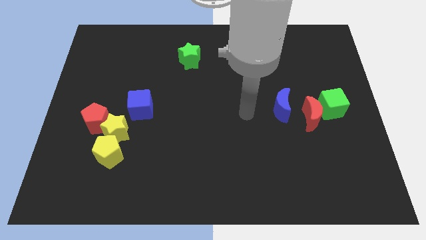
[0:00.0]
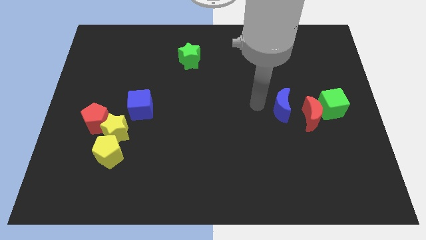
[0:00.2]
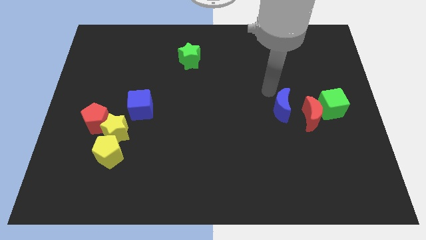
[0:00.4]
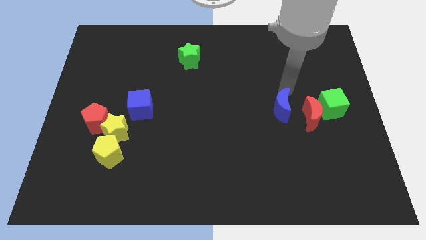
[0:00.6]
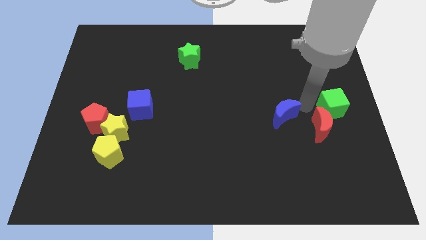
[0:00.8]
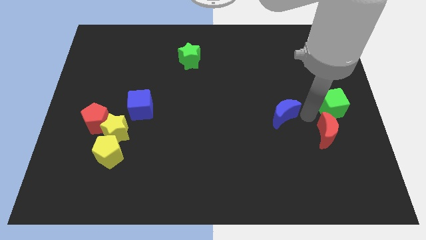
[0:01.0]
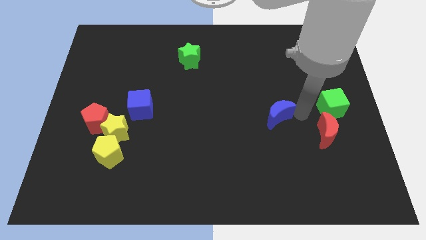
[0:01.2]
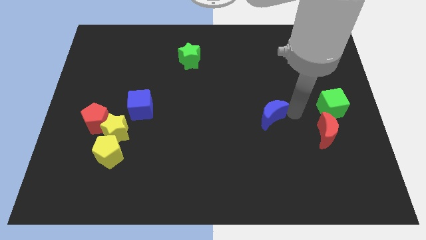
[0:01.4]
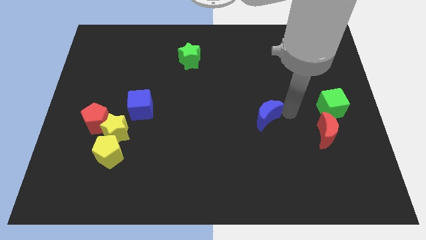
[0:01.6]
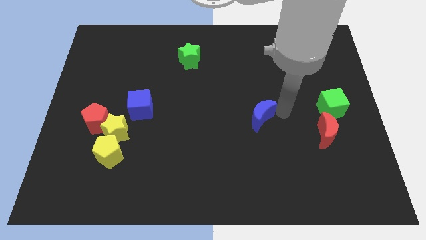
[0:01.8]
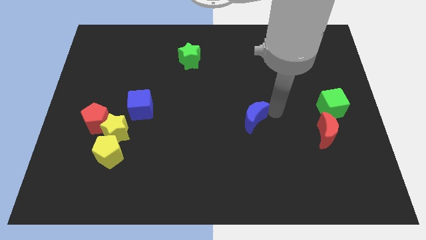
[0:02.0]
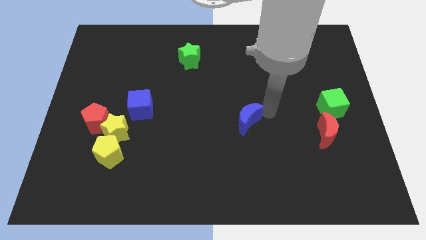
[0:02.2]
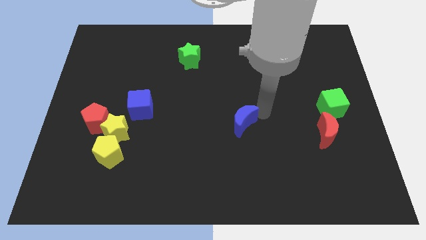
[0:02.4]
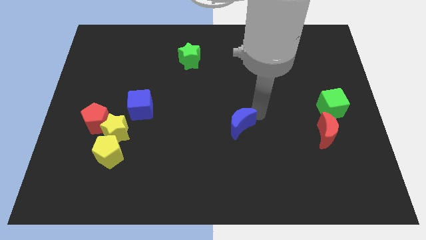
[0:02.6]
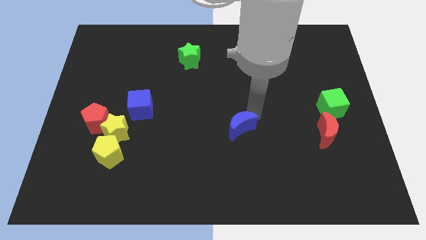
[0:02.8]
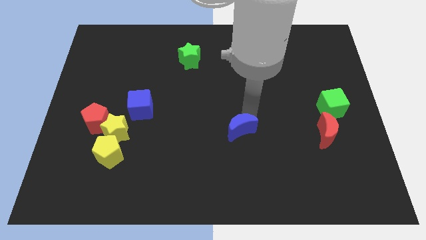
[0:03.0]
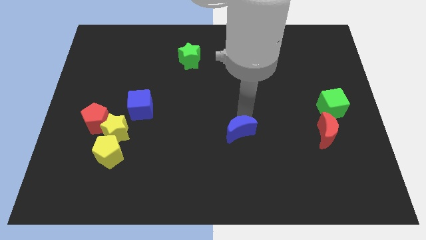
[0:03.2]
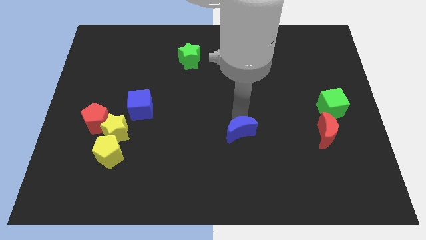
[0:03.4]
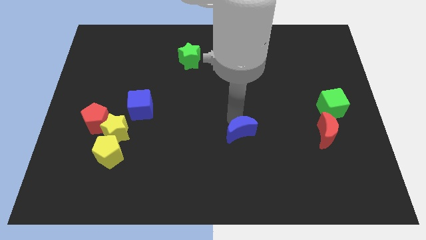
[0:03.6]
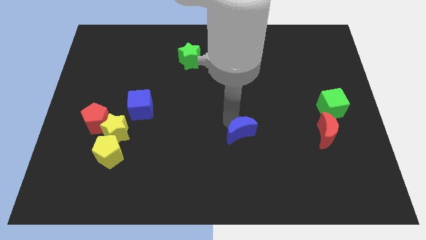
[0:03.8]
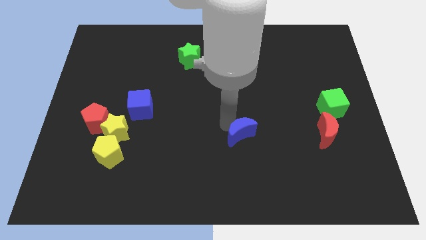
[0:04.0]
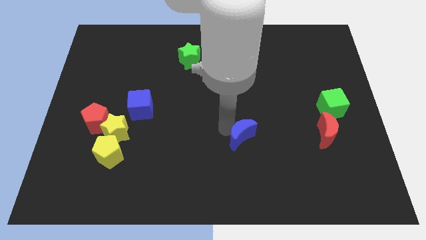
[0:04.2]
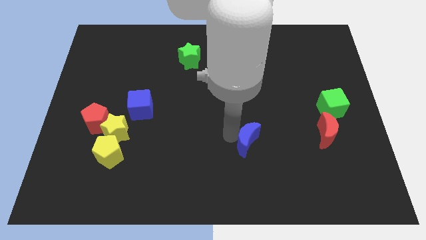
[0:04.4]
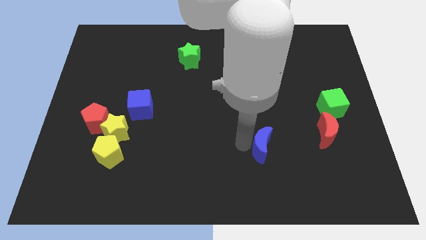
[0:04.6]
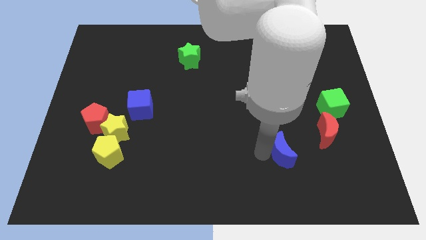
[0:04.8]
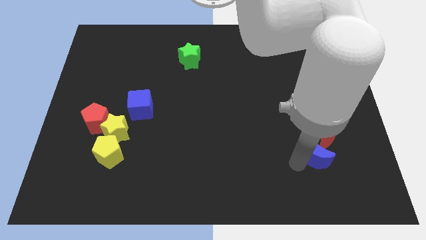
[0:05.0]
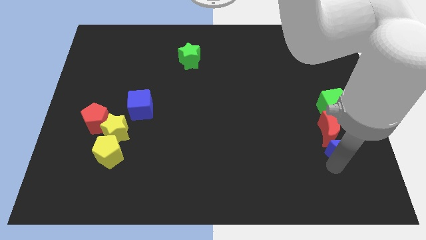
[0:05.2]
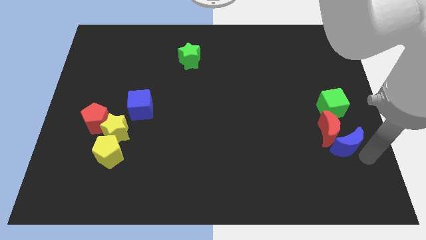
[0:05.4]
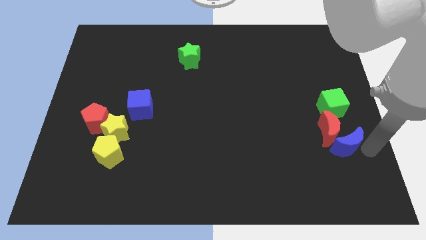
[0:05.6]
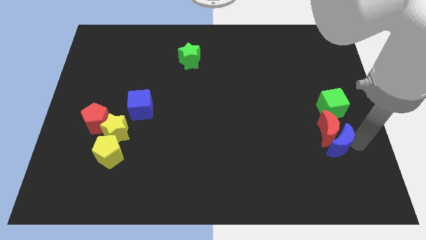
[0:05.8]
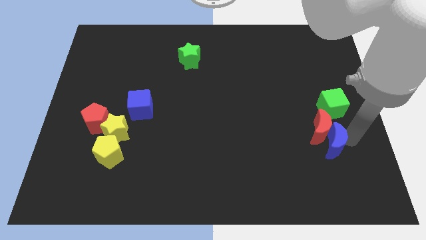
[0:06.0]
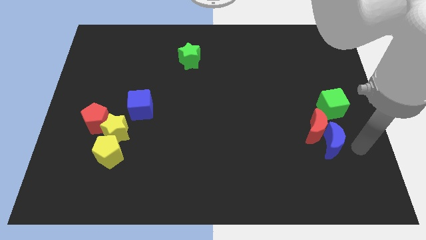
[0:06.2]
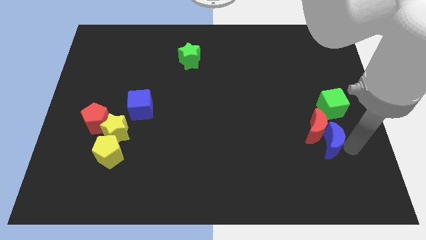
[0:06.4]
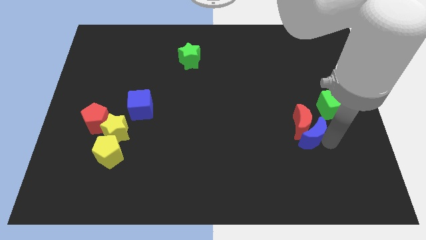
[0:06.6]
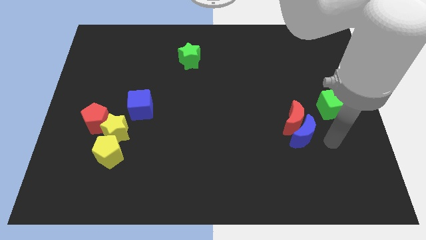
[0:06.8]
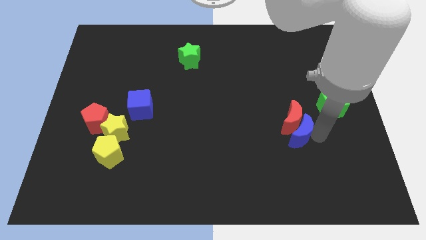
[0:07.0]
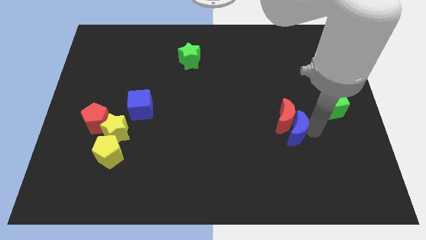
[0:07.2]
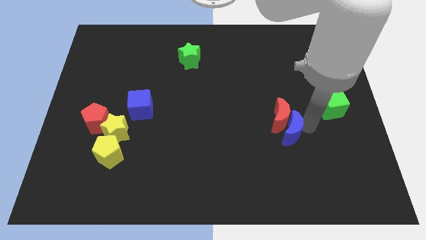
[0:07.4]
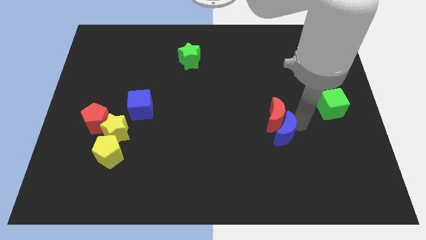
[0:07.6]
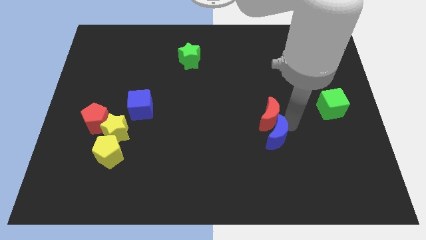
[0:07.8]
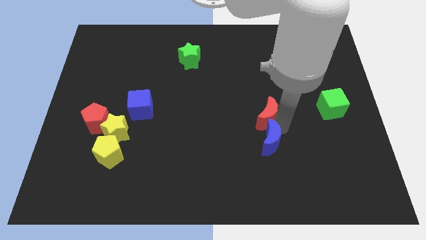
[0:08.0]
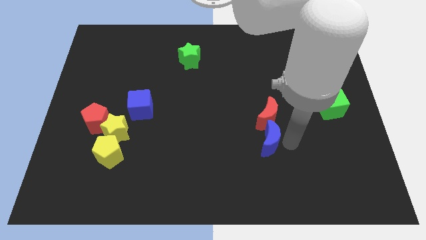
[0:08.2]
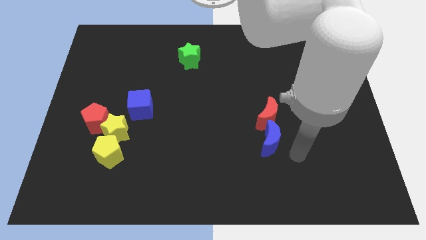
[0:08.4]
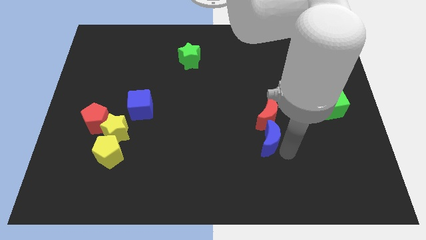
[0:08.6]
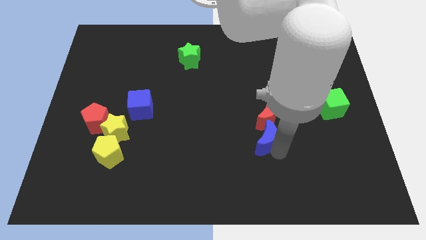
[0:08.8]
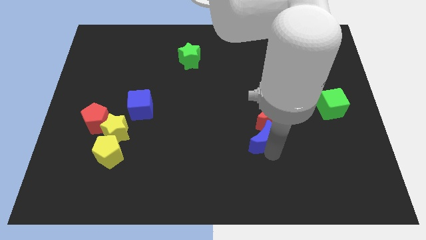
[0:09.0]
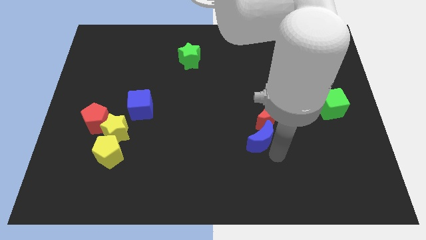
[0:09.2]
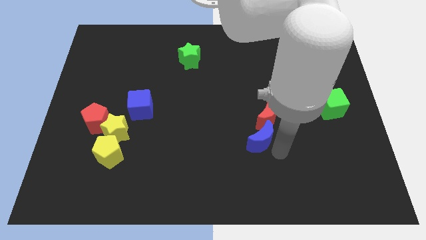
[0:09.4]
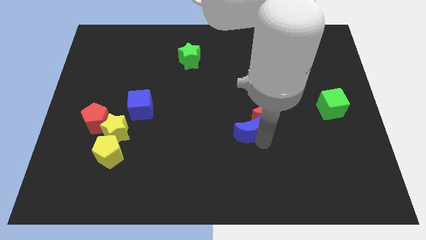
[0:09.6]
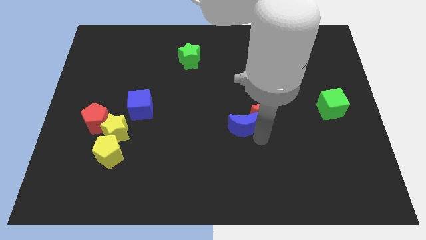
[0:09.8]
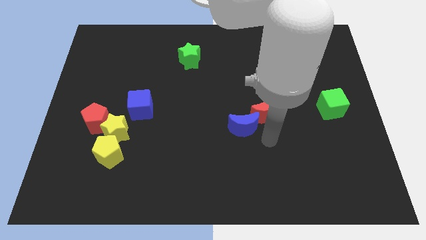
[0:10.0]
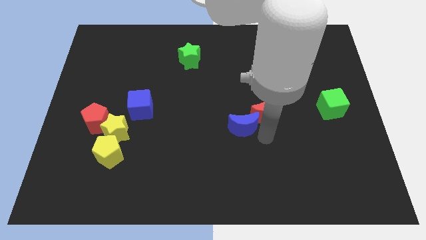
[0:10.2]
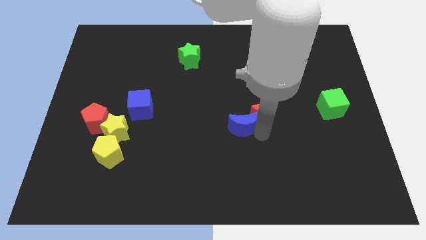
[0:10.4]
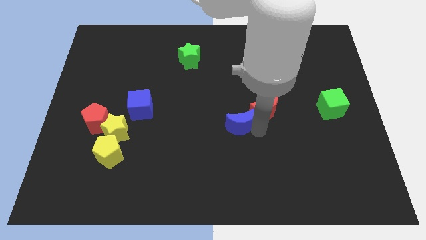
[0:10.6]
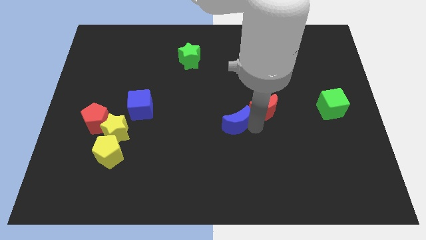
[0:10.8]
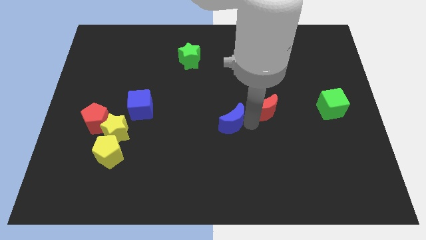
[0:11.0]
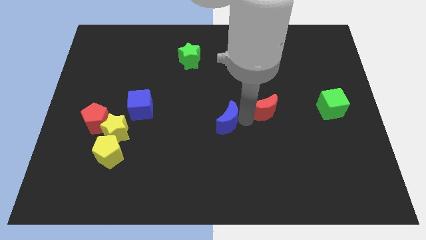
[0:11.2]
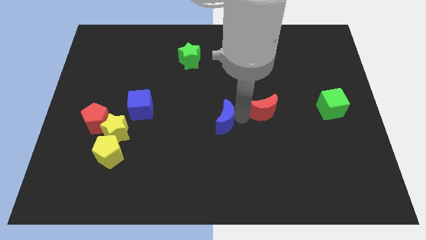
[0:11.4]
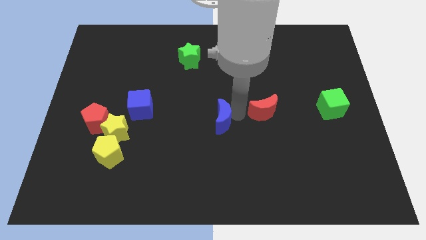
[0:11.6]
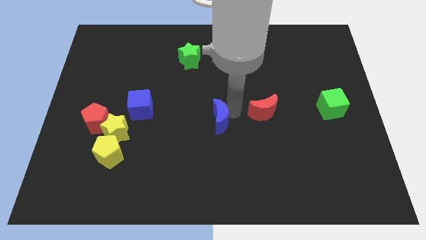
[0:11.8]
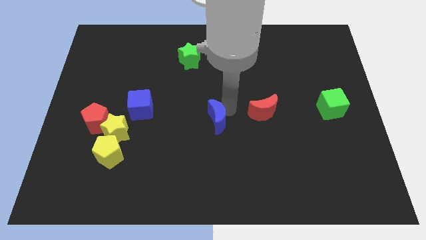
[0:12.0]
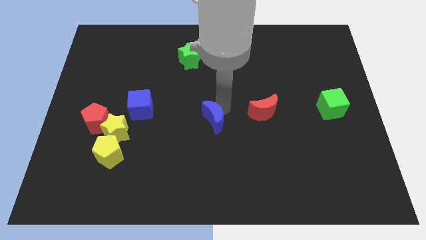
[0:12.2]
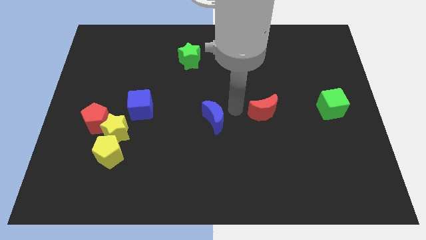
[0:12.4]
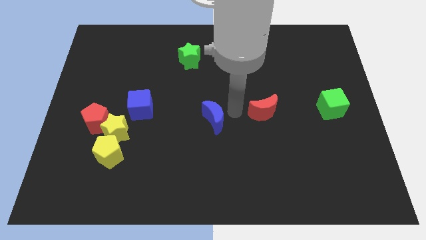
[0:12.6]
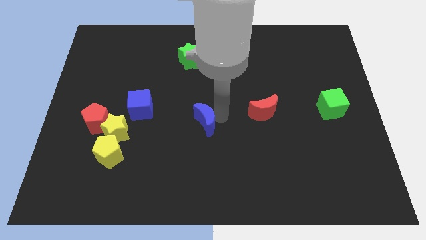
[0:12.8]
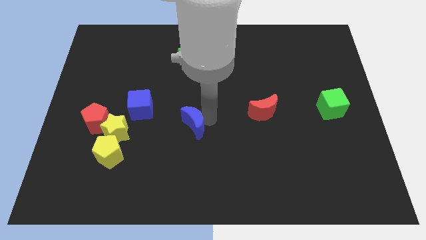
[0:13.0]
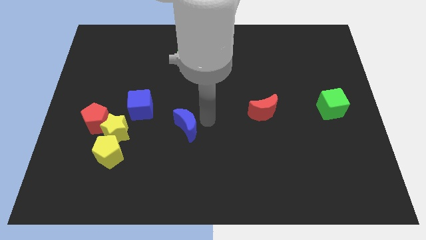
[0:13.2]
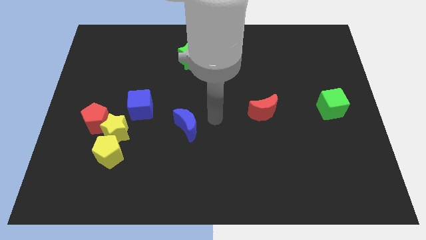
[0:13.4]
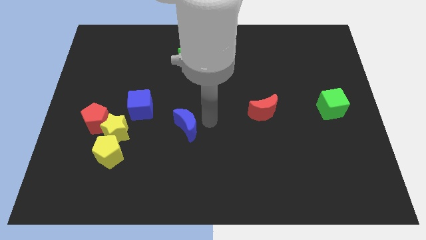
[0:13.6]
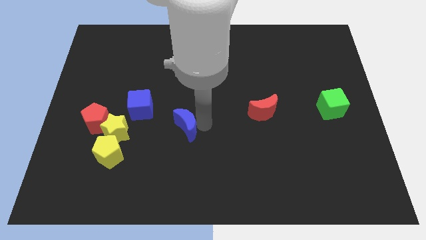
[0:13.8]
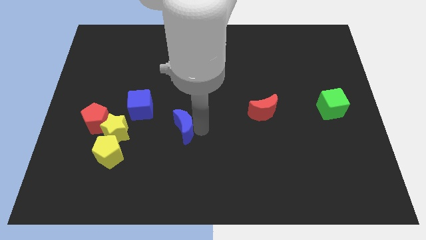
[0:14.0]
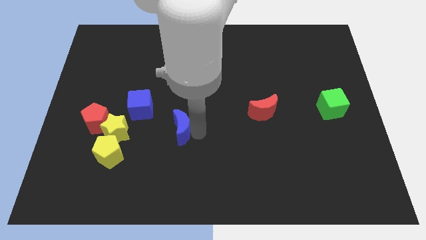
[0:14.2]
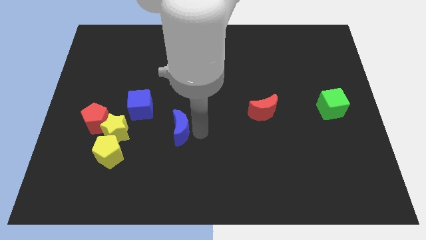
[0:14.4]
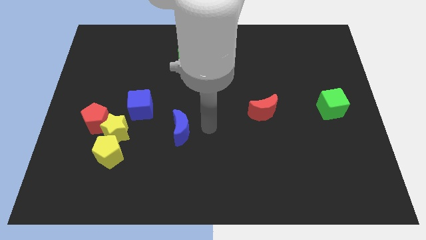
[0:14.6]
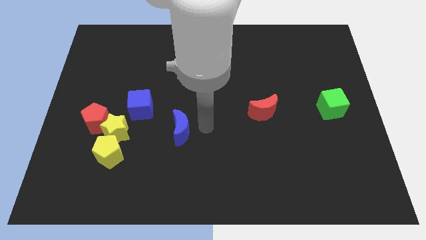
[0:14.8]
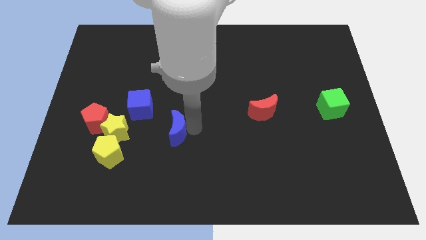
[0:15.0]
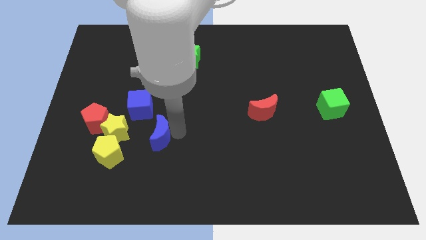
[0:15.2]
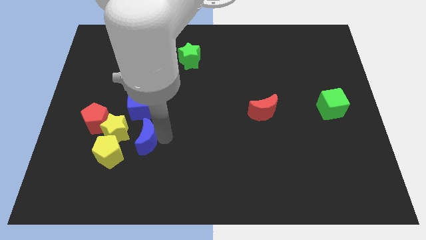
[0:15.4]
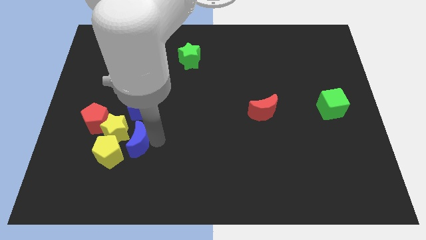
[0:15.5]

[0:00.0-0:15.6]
put the blue moon close to the yellow star
